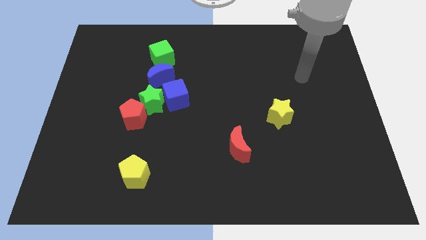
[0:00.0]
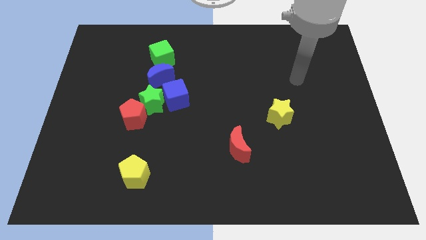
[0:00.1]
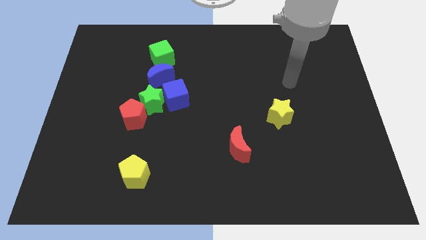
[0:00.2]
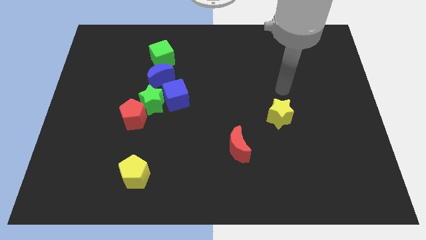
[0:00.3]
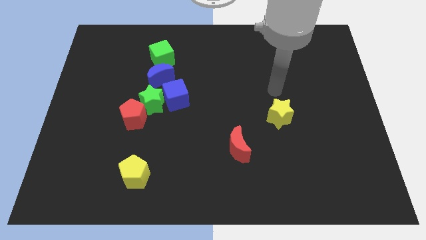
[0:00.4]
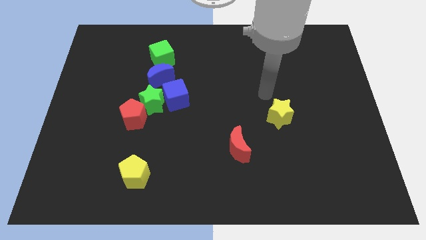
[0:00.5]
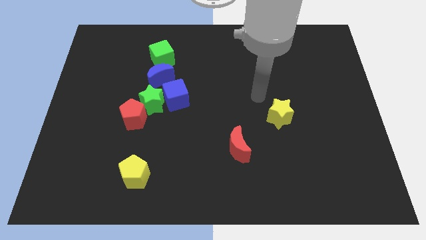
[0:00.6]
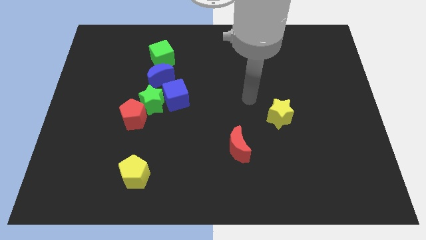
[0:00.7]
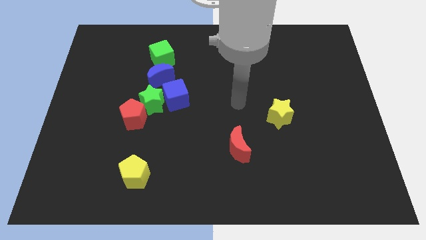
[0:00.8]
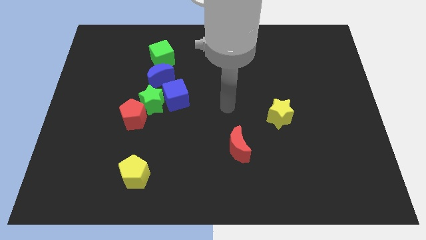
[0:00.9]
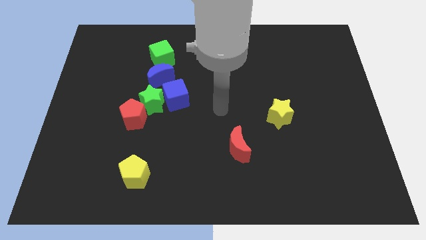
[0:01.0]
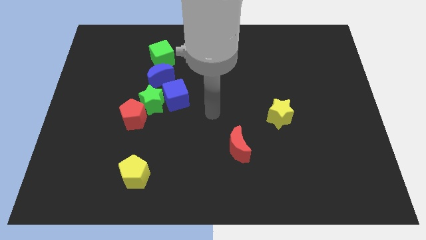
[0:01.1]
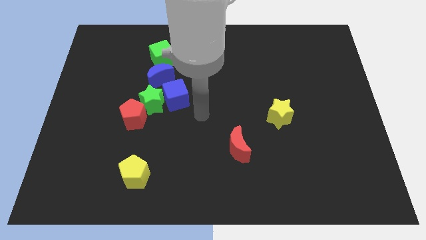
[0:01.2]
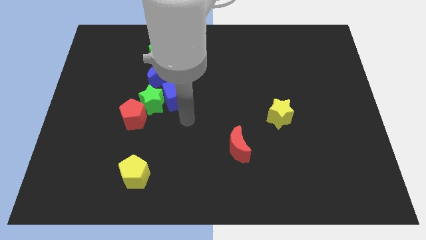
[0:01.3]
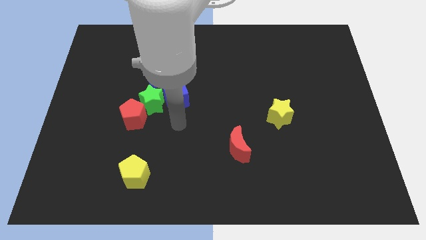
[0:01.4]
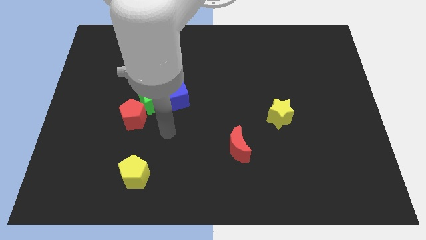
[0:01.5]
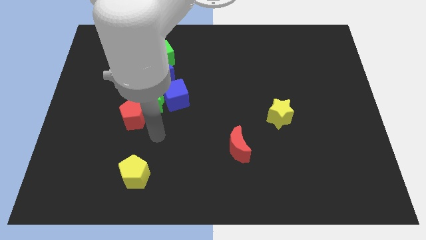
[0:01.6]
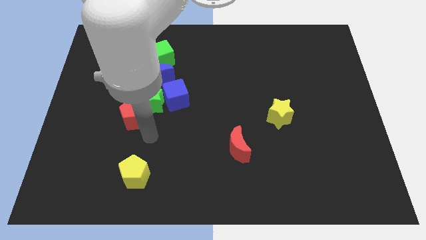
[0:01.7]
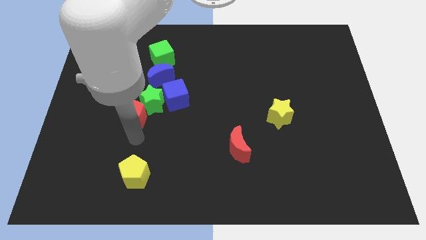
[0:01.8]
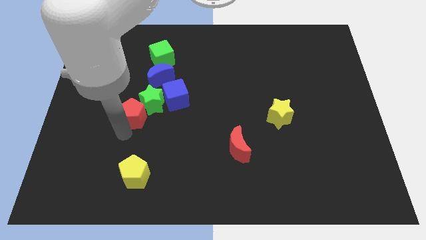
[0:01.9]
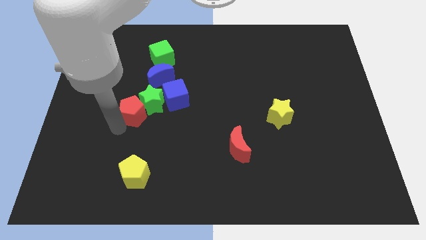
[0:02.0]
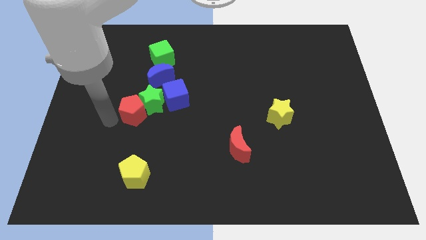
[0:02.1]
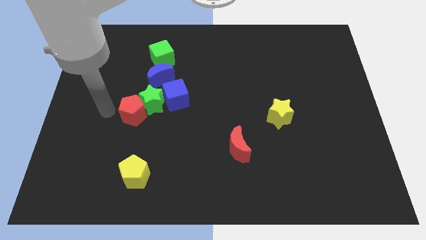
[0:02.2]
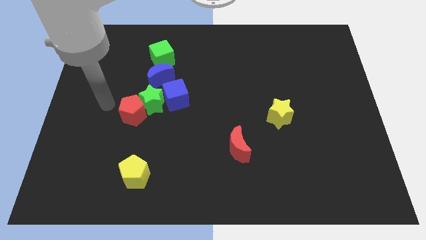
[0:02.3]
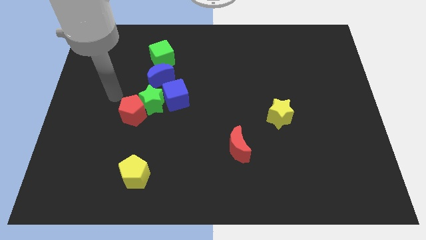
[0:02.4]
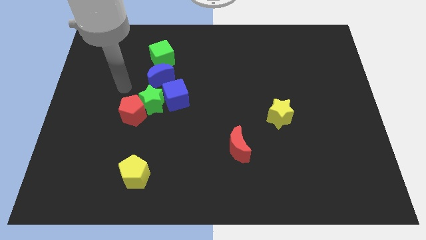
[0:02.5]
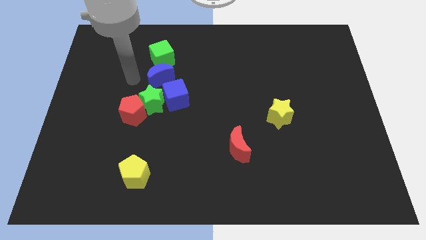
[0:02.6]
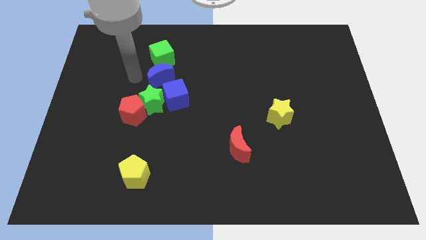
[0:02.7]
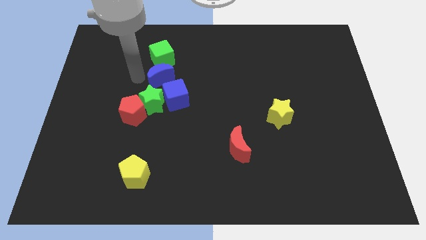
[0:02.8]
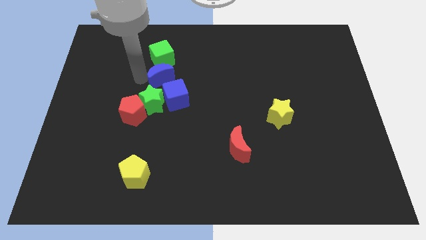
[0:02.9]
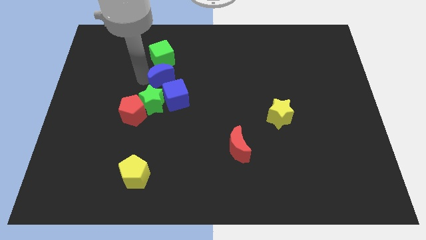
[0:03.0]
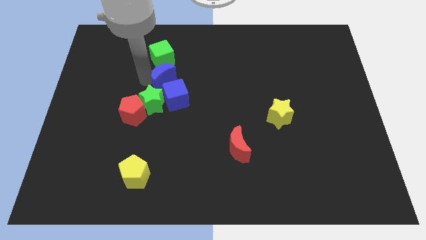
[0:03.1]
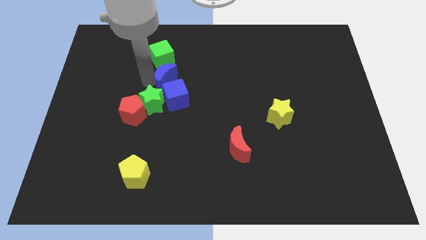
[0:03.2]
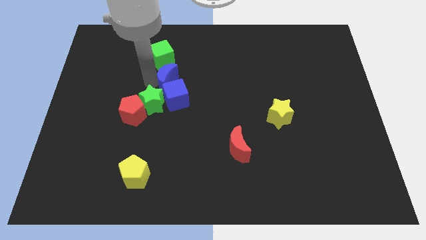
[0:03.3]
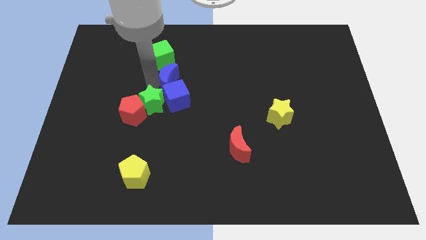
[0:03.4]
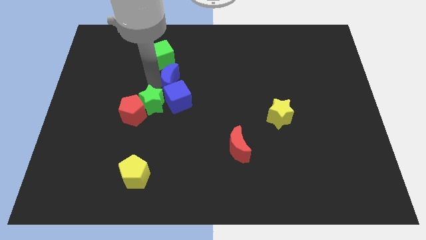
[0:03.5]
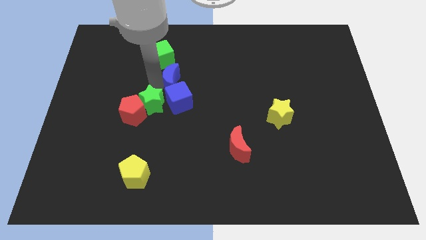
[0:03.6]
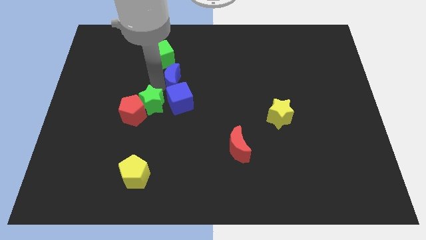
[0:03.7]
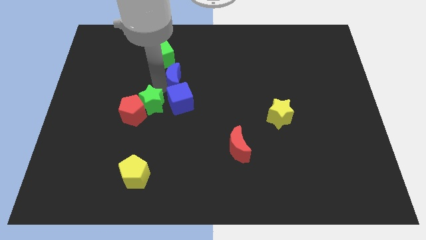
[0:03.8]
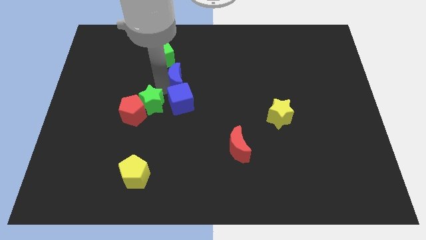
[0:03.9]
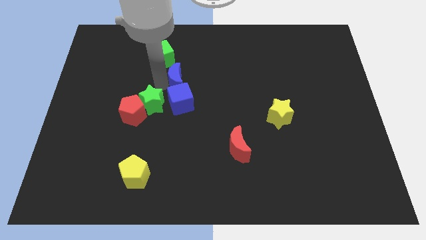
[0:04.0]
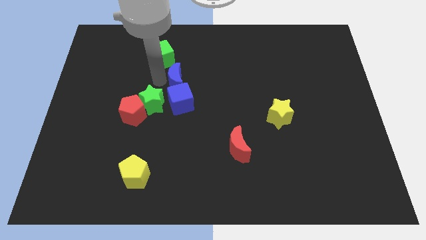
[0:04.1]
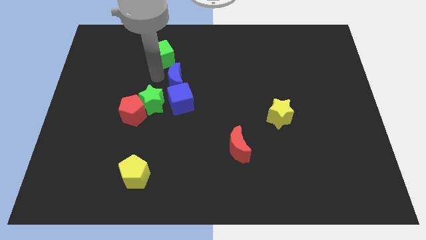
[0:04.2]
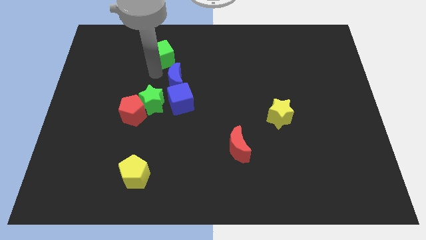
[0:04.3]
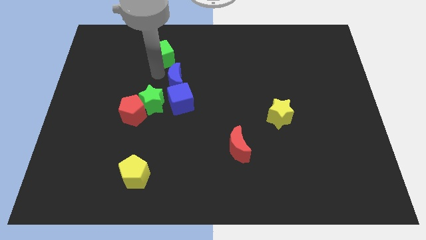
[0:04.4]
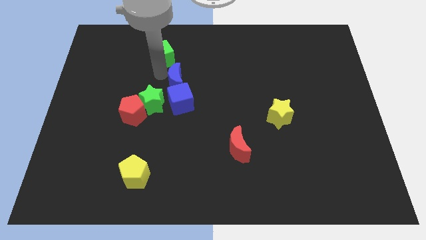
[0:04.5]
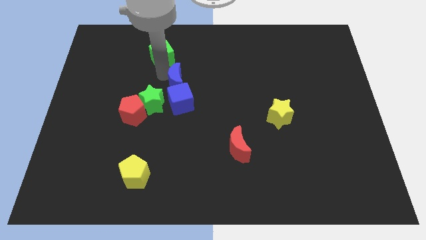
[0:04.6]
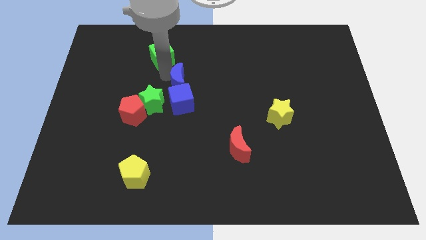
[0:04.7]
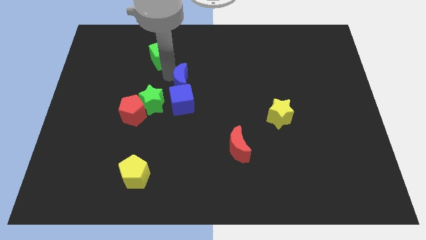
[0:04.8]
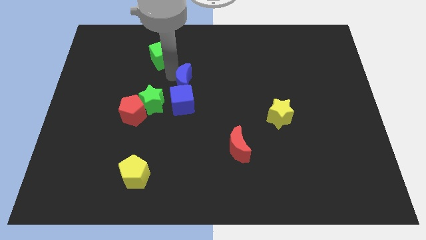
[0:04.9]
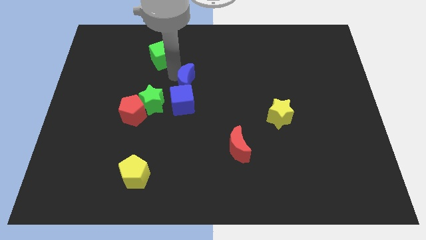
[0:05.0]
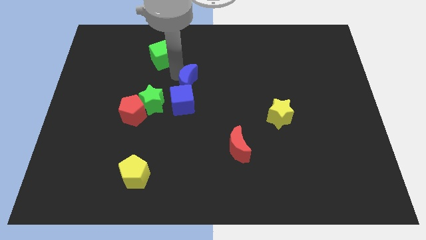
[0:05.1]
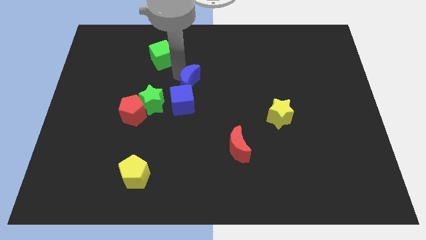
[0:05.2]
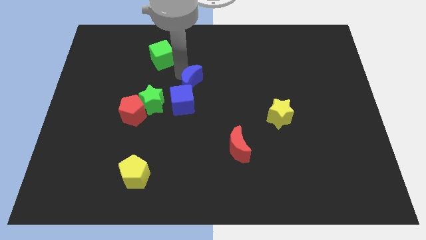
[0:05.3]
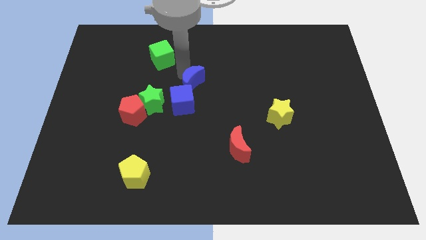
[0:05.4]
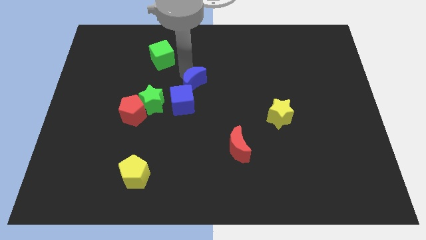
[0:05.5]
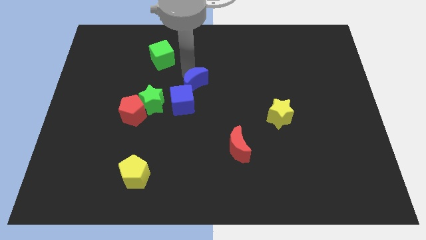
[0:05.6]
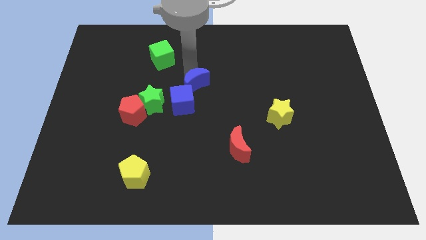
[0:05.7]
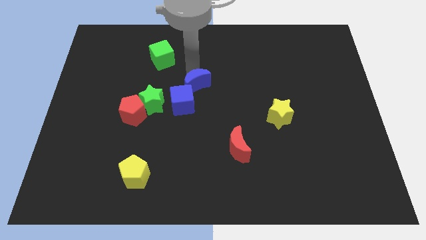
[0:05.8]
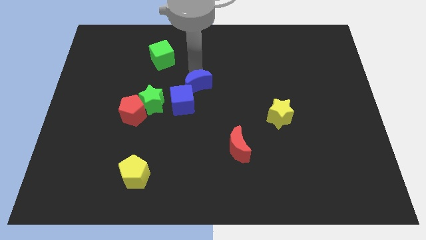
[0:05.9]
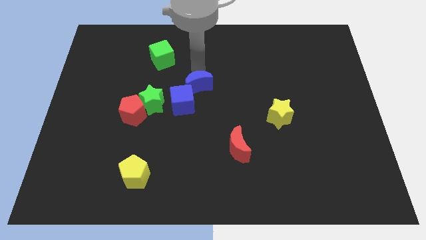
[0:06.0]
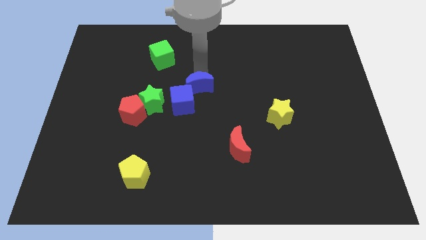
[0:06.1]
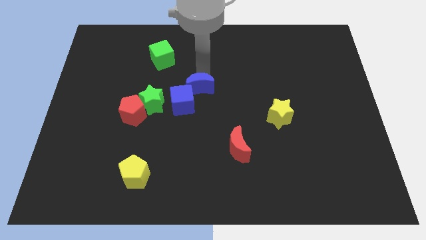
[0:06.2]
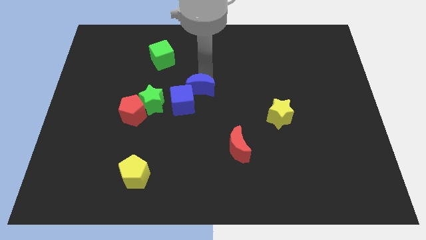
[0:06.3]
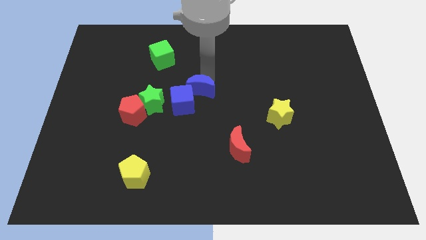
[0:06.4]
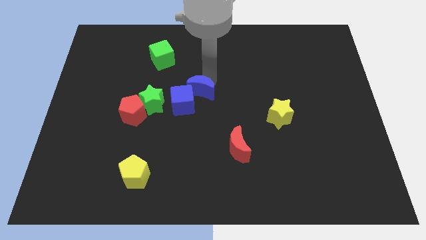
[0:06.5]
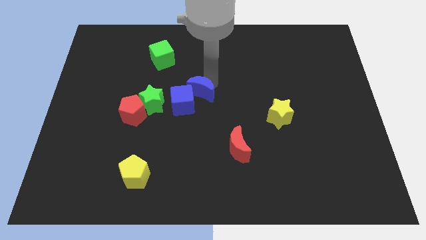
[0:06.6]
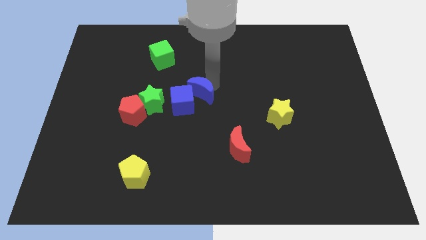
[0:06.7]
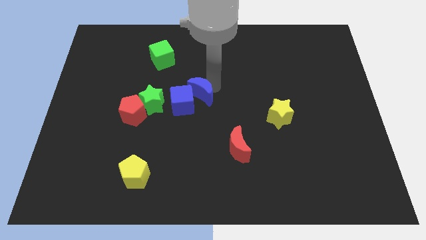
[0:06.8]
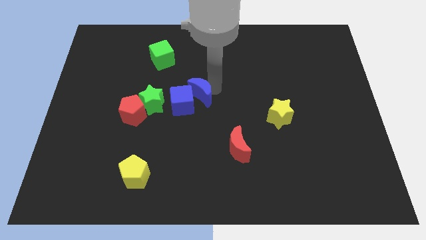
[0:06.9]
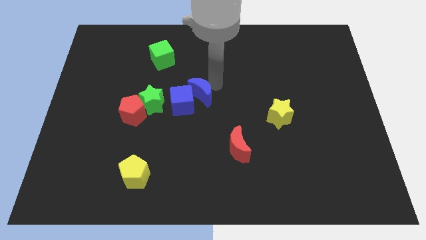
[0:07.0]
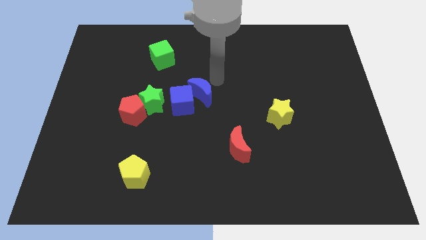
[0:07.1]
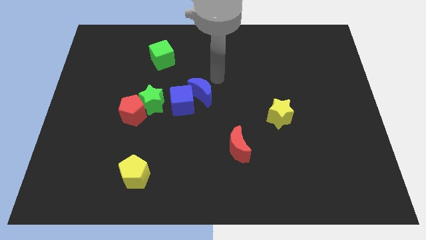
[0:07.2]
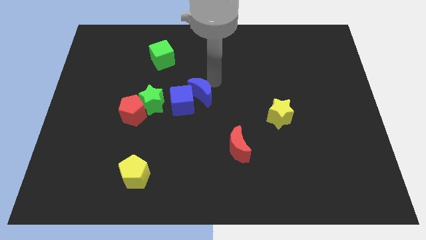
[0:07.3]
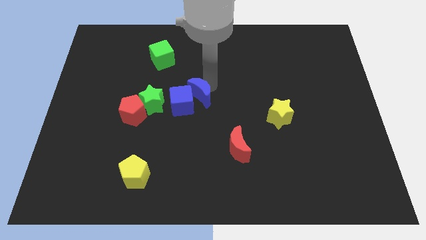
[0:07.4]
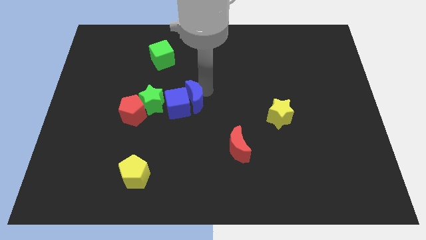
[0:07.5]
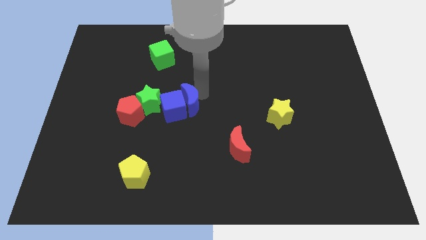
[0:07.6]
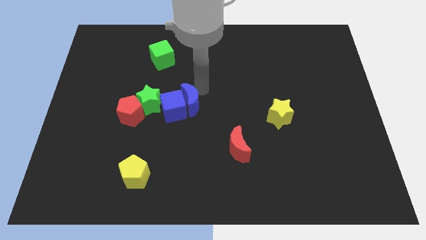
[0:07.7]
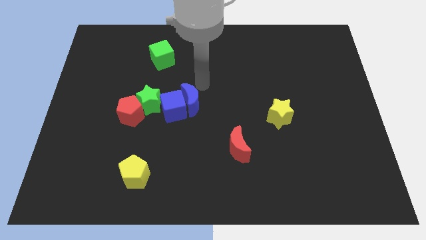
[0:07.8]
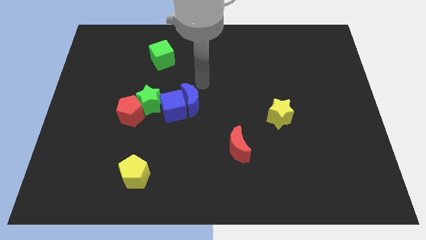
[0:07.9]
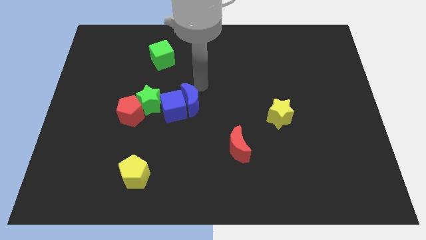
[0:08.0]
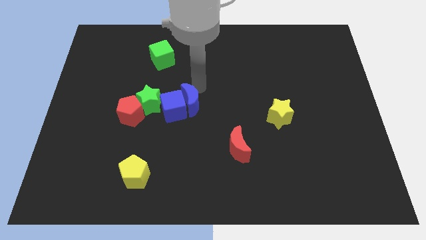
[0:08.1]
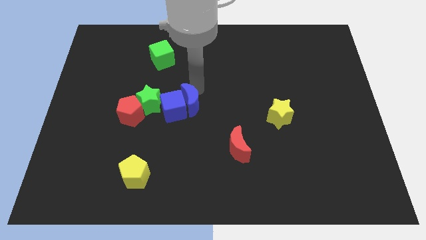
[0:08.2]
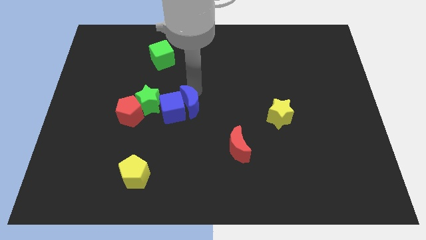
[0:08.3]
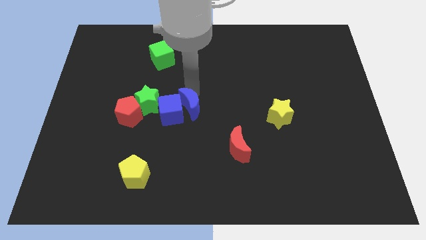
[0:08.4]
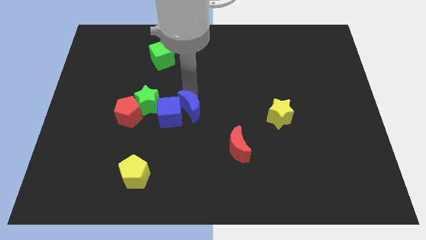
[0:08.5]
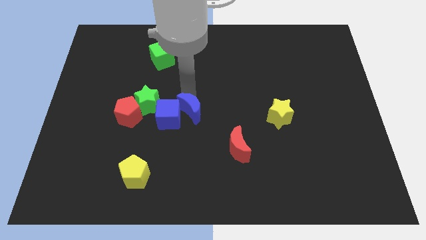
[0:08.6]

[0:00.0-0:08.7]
slide the blue moon down a bit
